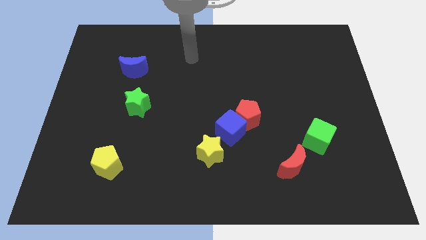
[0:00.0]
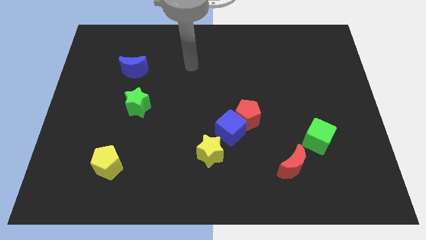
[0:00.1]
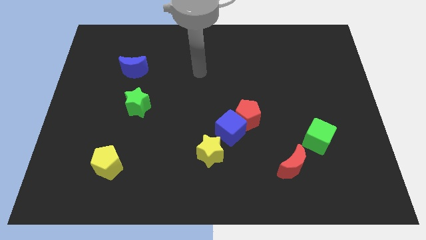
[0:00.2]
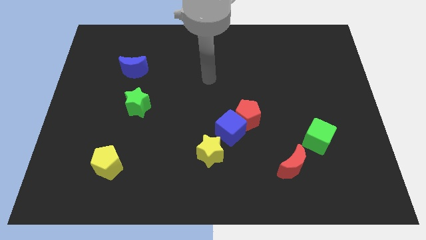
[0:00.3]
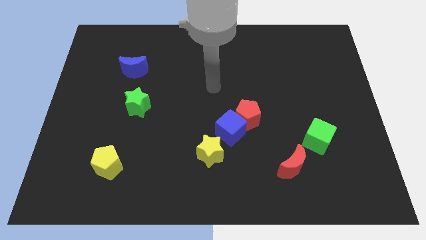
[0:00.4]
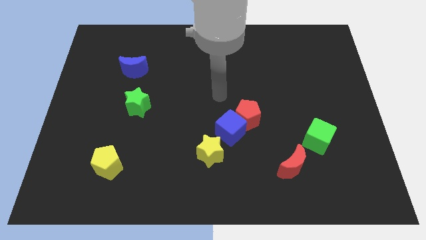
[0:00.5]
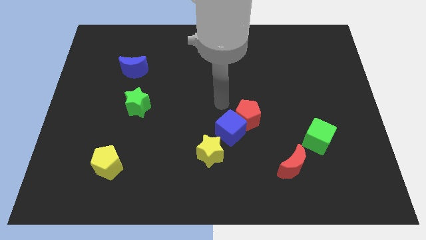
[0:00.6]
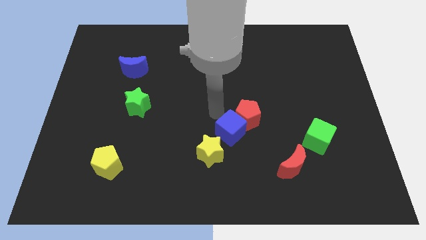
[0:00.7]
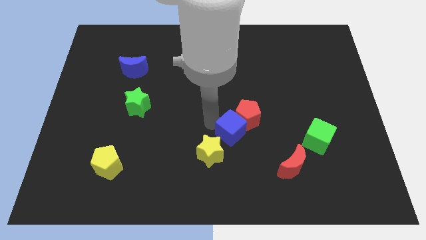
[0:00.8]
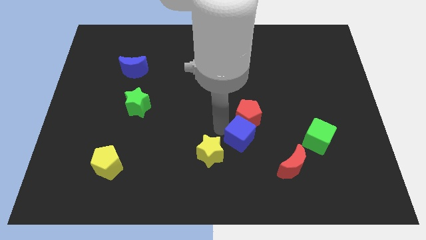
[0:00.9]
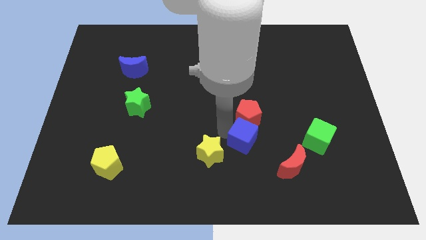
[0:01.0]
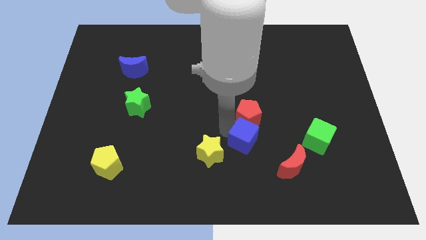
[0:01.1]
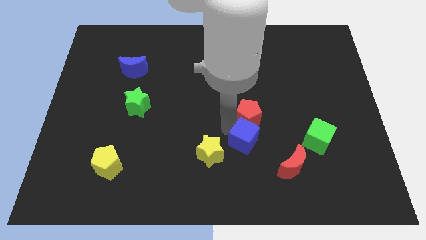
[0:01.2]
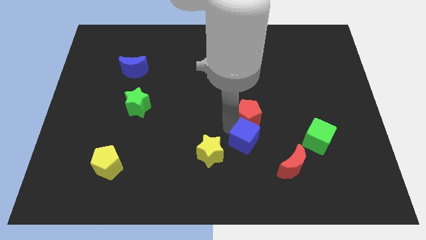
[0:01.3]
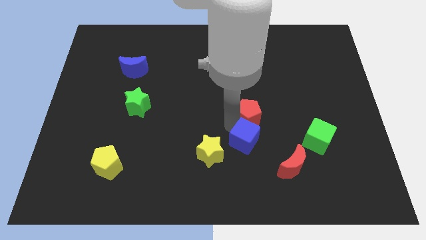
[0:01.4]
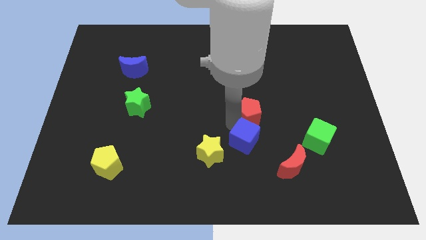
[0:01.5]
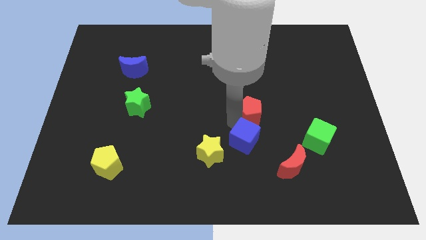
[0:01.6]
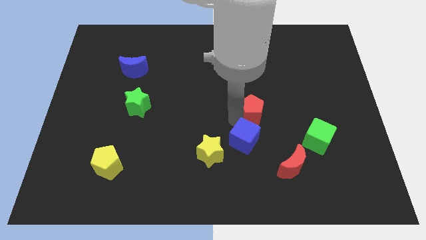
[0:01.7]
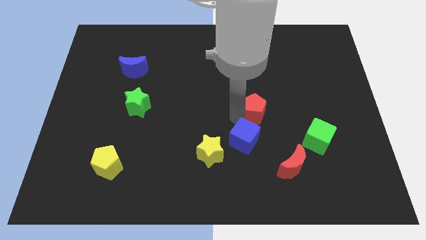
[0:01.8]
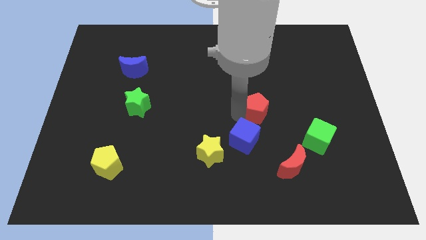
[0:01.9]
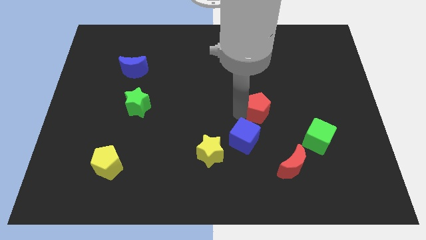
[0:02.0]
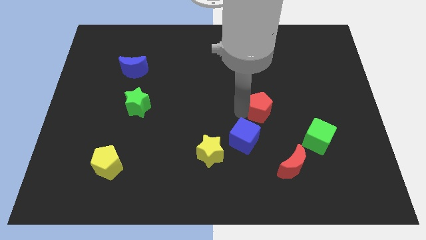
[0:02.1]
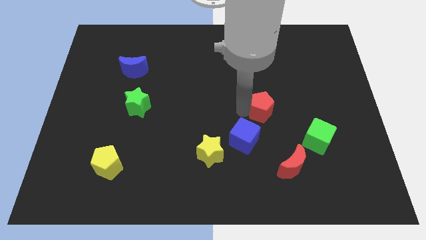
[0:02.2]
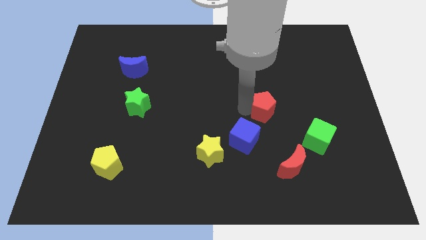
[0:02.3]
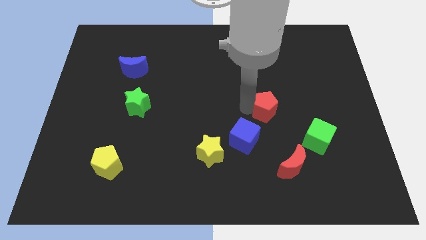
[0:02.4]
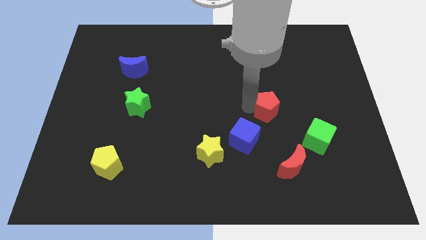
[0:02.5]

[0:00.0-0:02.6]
move the red pentagon away from the blue cube

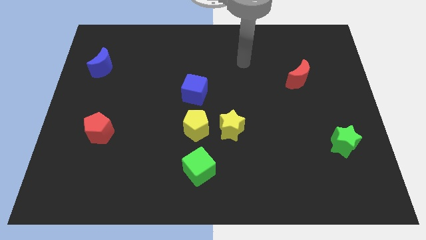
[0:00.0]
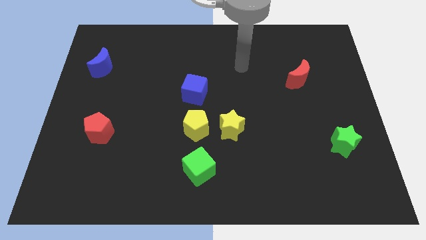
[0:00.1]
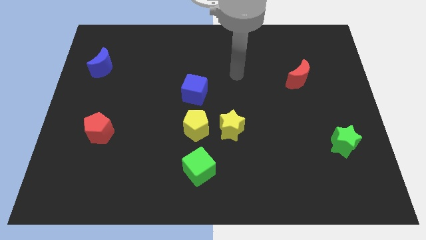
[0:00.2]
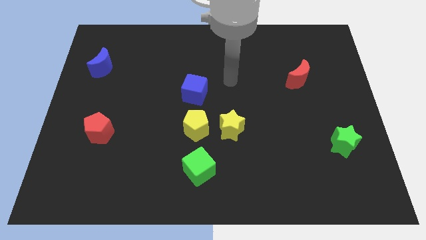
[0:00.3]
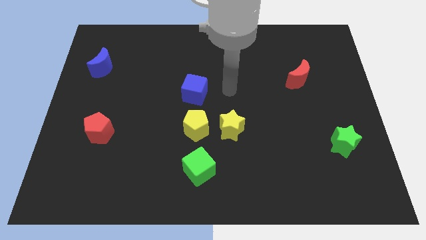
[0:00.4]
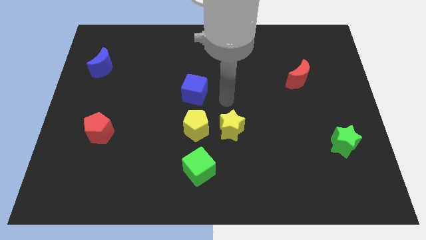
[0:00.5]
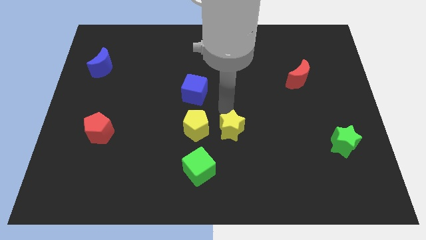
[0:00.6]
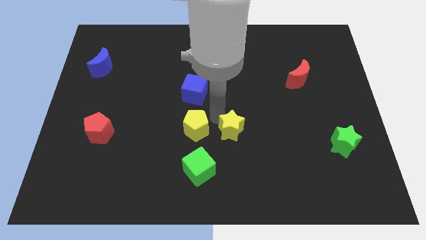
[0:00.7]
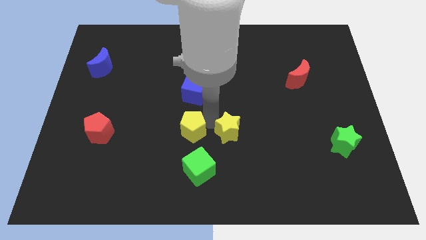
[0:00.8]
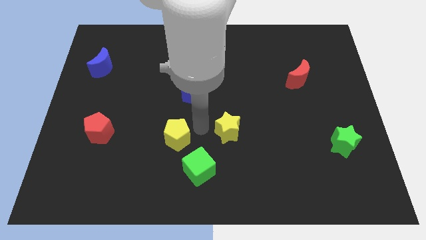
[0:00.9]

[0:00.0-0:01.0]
separate the yellow star from the yellow pentagon

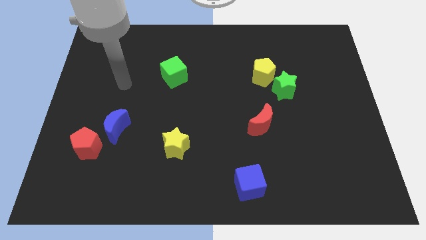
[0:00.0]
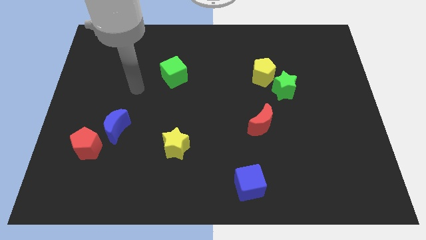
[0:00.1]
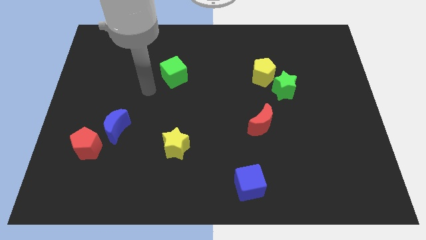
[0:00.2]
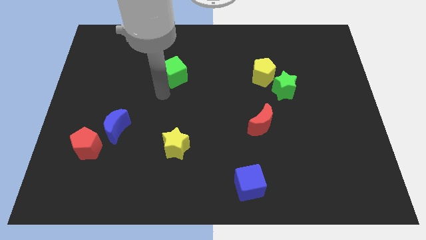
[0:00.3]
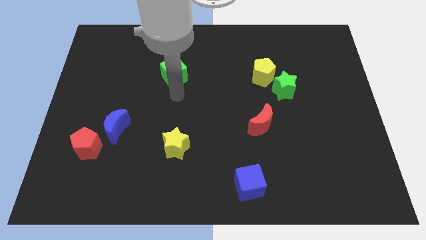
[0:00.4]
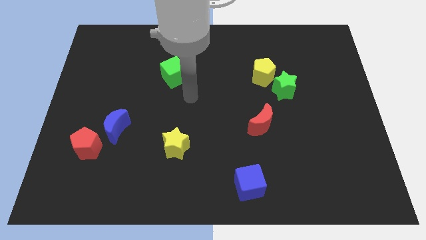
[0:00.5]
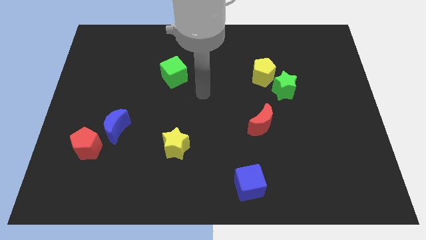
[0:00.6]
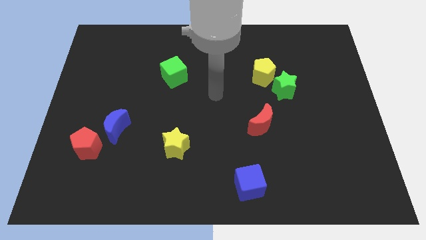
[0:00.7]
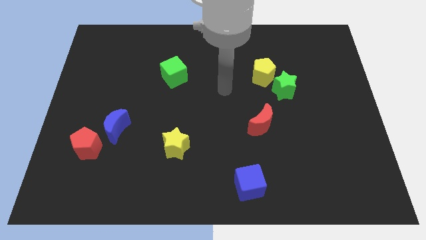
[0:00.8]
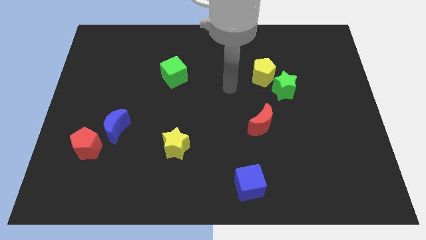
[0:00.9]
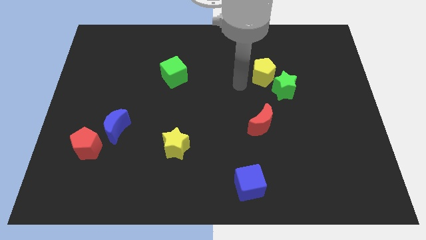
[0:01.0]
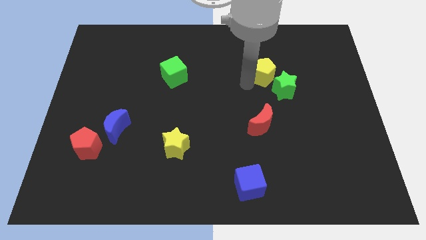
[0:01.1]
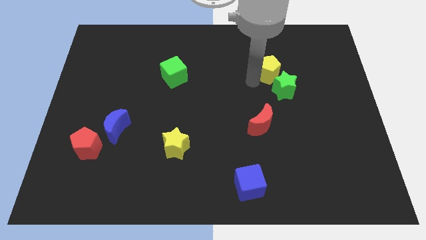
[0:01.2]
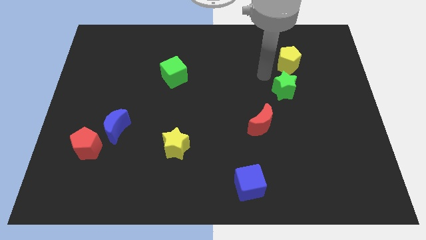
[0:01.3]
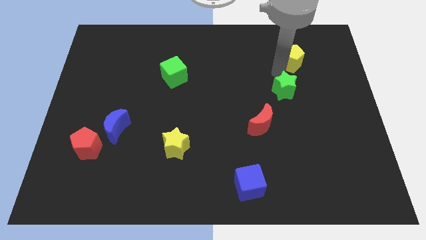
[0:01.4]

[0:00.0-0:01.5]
separate the green star from the yellow pentagon

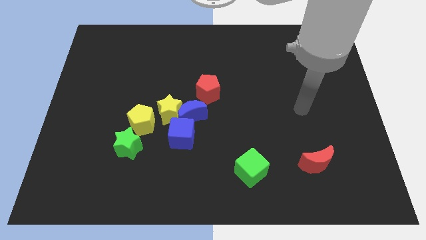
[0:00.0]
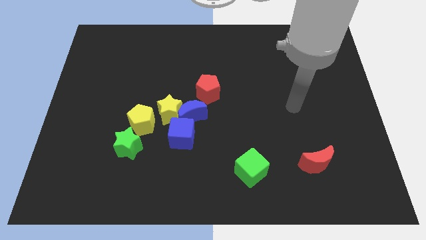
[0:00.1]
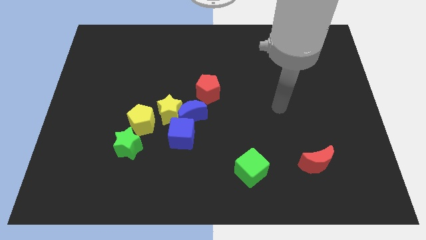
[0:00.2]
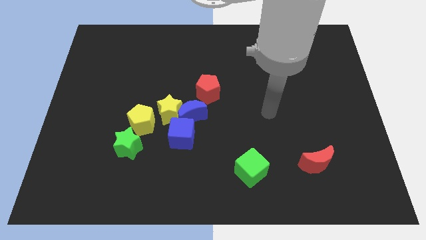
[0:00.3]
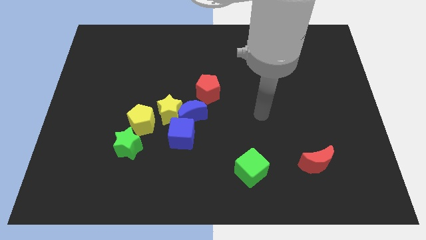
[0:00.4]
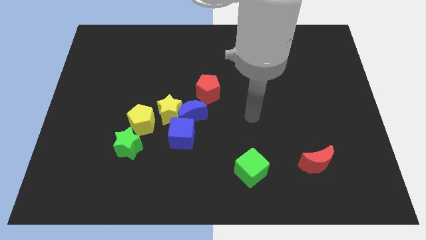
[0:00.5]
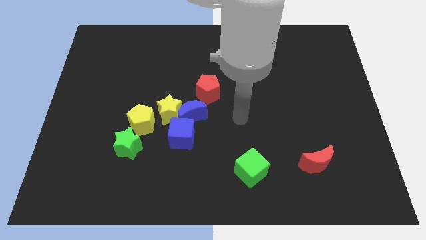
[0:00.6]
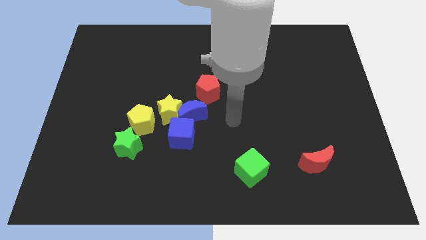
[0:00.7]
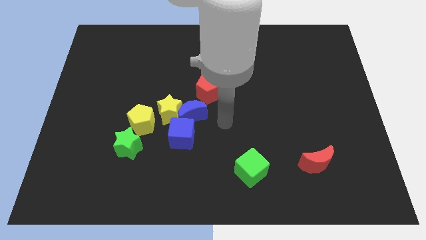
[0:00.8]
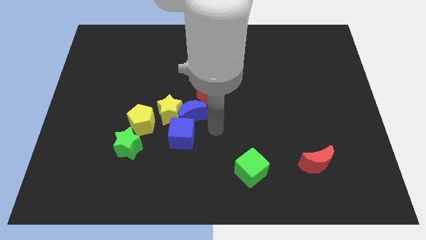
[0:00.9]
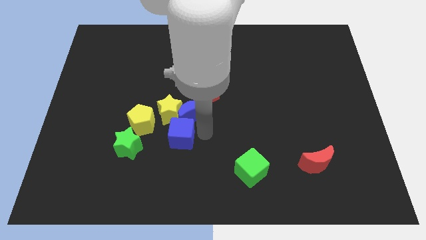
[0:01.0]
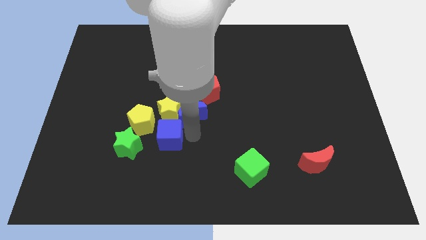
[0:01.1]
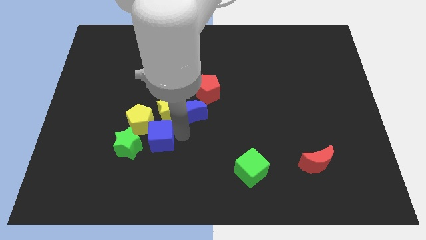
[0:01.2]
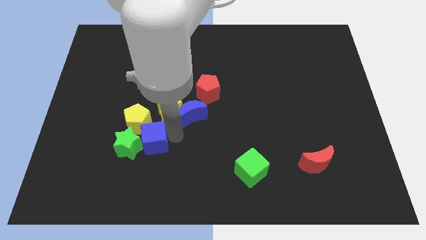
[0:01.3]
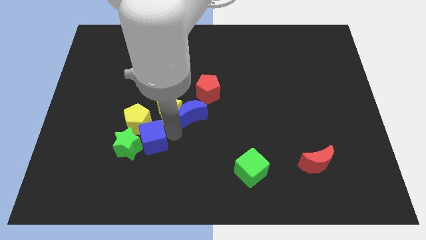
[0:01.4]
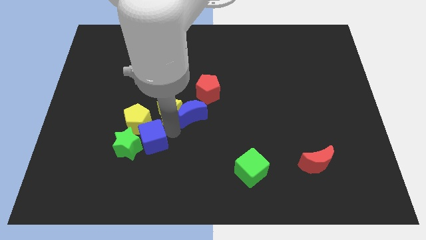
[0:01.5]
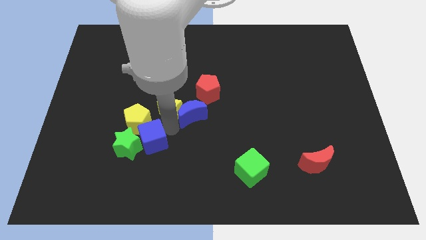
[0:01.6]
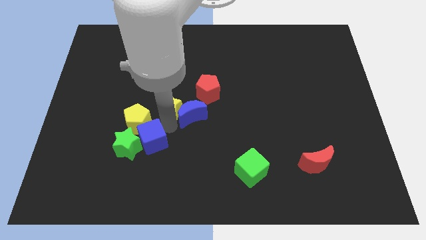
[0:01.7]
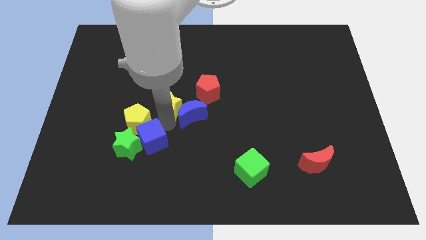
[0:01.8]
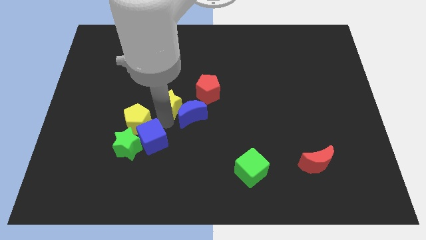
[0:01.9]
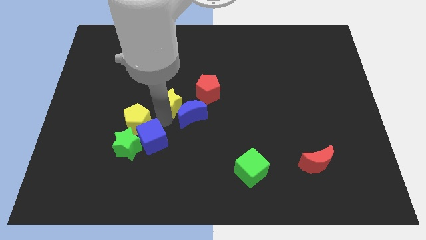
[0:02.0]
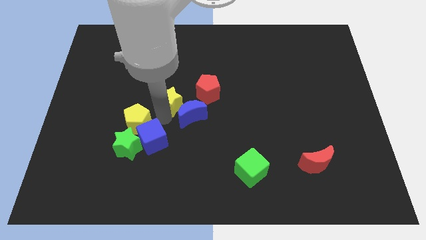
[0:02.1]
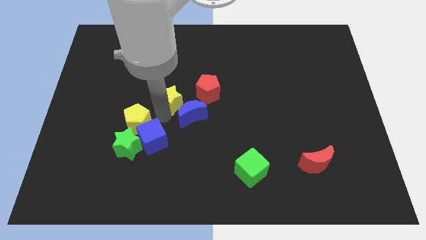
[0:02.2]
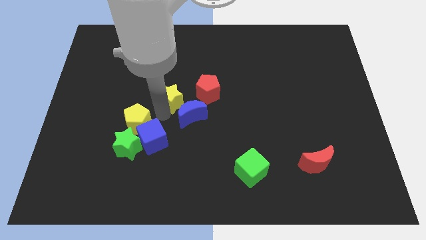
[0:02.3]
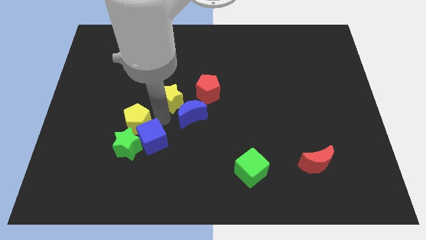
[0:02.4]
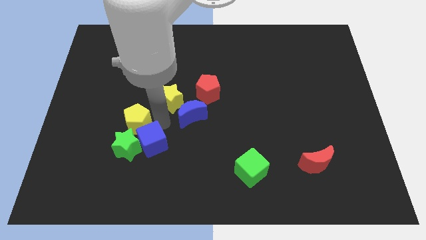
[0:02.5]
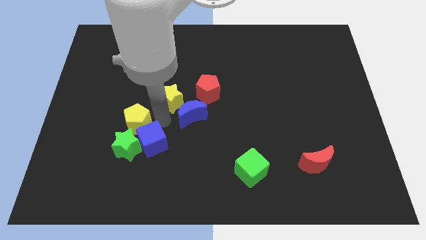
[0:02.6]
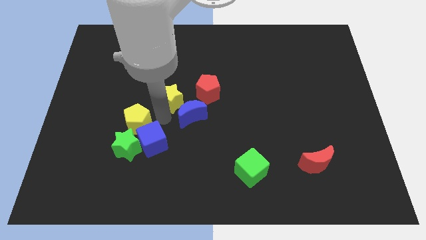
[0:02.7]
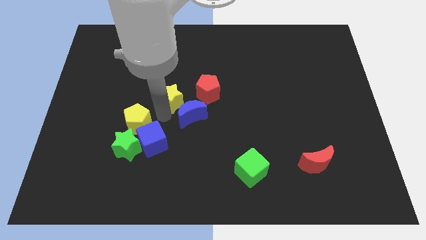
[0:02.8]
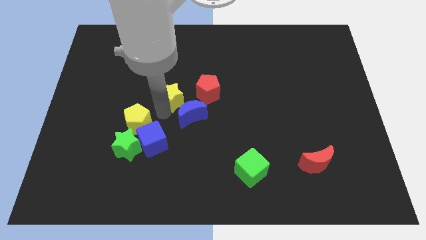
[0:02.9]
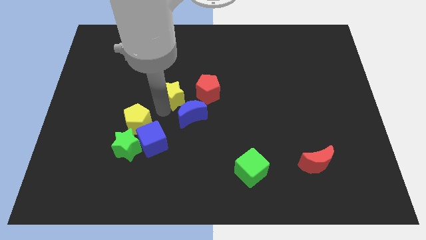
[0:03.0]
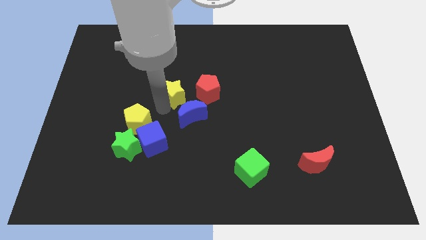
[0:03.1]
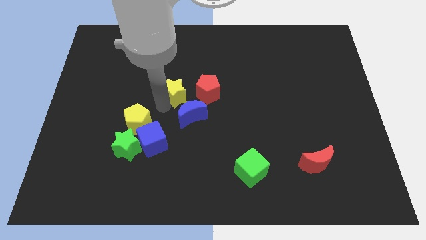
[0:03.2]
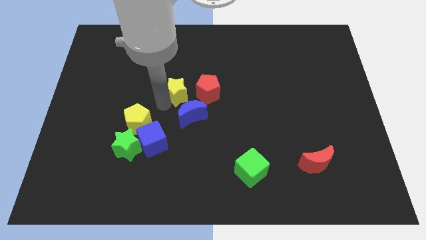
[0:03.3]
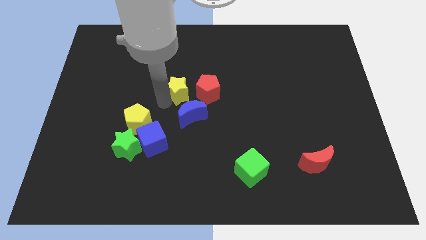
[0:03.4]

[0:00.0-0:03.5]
pull the yellow star apart from the group

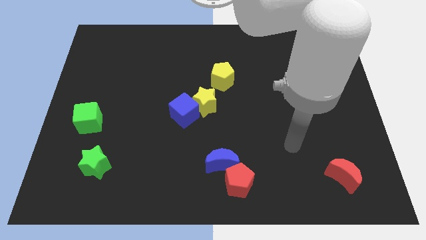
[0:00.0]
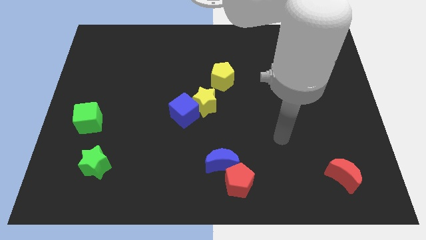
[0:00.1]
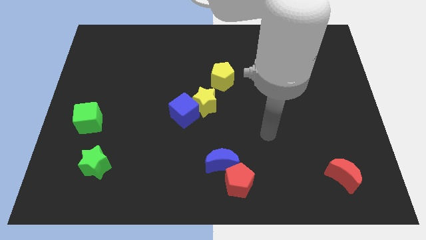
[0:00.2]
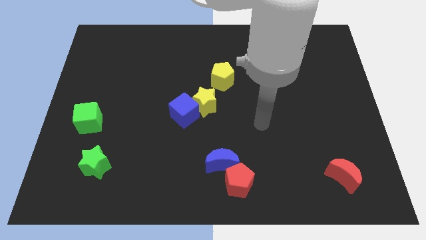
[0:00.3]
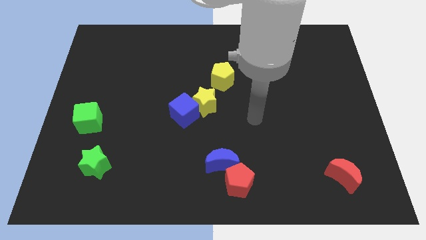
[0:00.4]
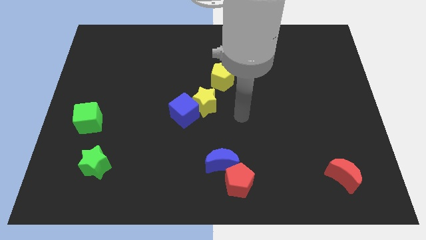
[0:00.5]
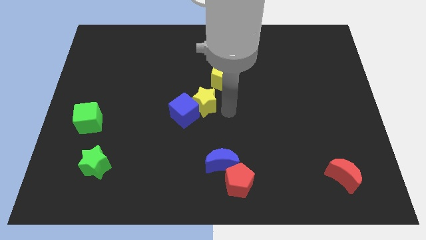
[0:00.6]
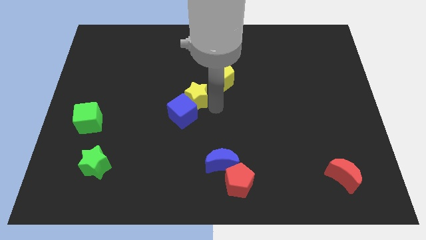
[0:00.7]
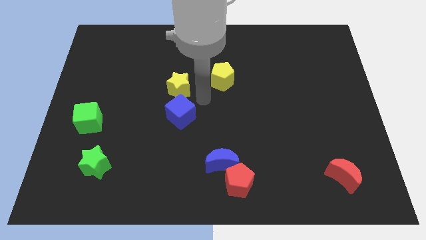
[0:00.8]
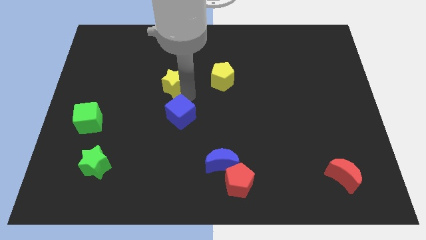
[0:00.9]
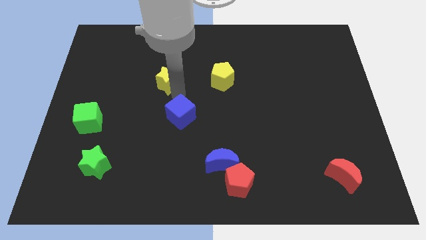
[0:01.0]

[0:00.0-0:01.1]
move the blue cube away from the yellow star
